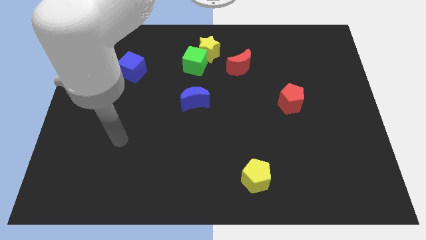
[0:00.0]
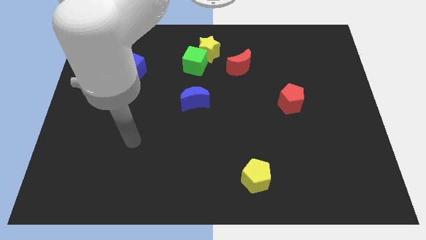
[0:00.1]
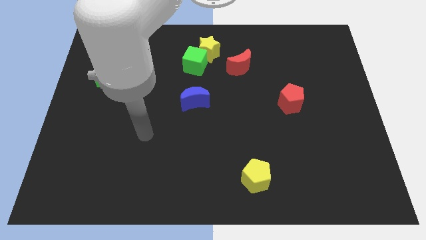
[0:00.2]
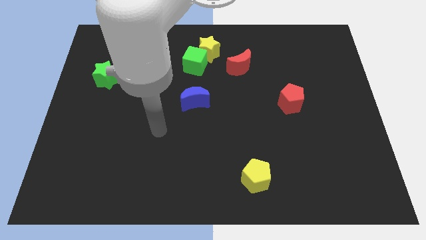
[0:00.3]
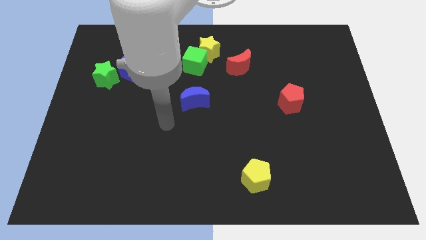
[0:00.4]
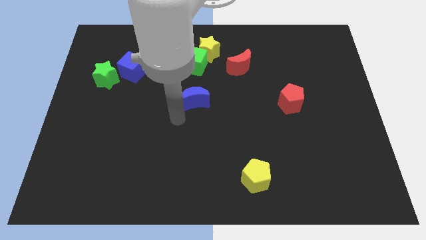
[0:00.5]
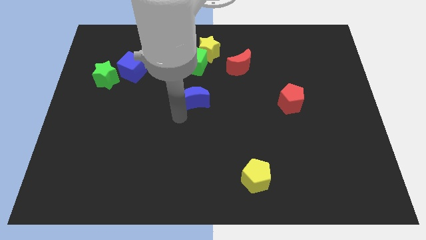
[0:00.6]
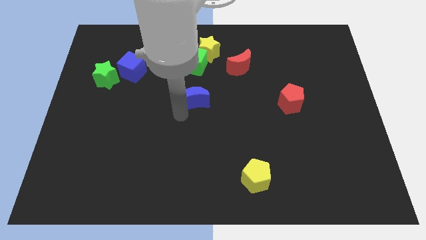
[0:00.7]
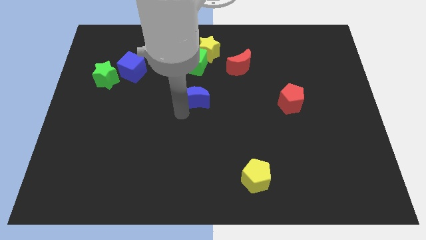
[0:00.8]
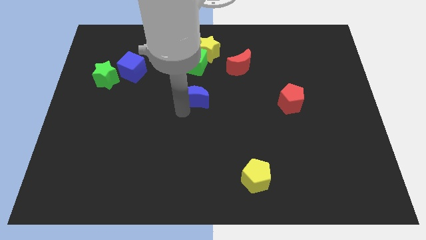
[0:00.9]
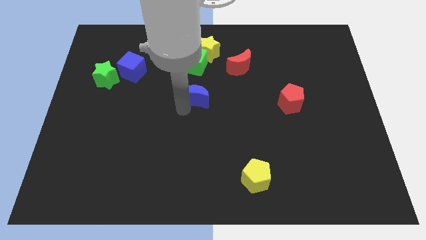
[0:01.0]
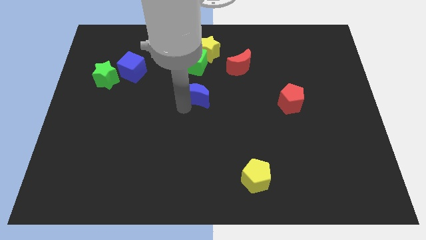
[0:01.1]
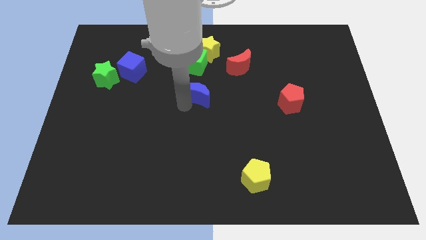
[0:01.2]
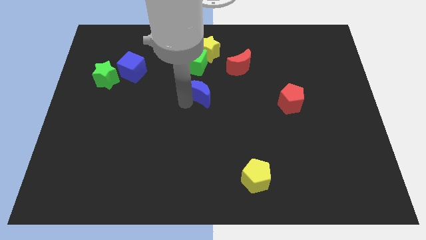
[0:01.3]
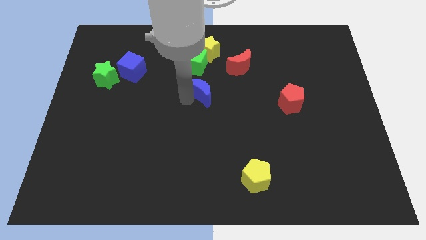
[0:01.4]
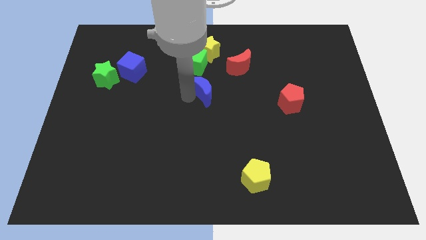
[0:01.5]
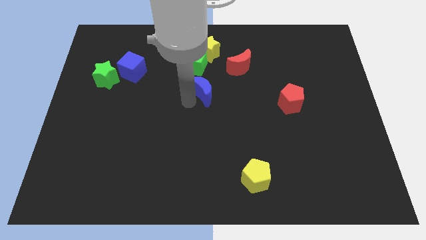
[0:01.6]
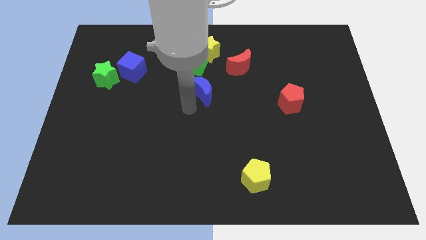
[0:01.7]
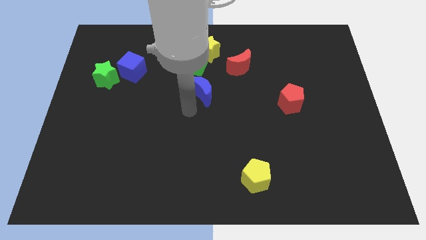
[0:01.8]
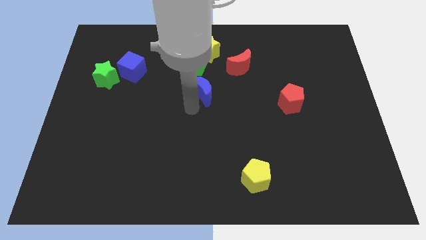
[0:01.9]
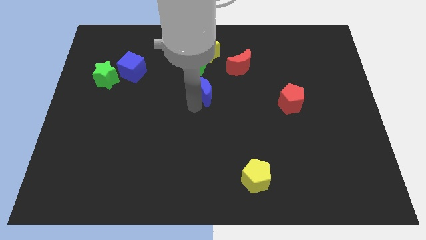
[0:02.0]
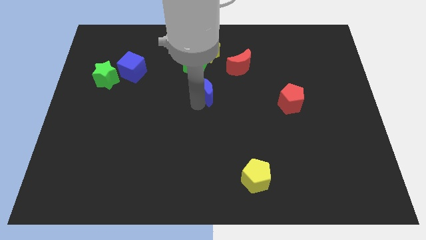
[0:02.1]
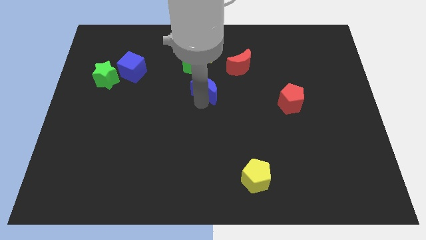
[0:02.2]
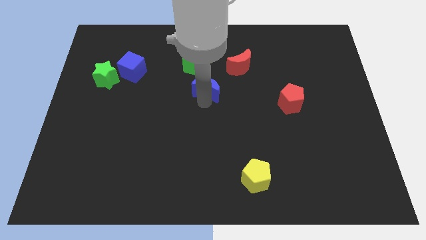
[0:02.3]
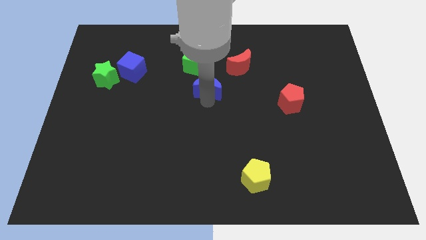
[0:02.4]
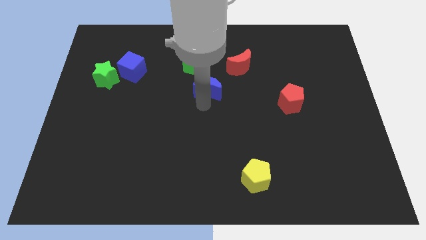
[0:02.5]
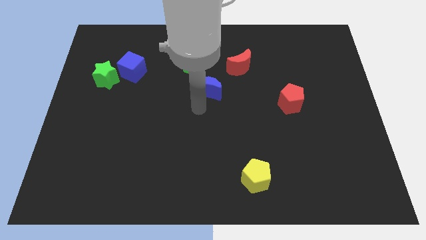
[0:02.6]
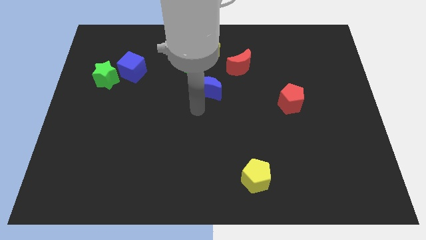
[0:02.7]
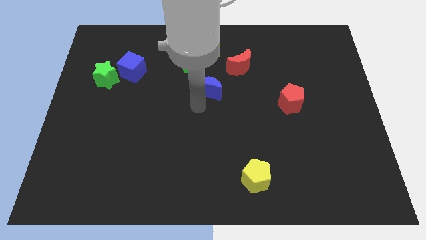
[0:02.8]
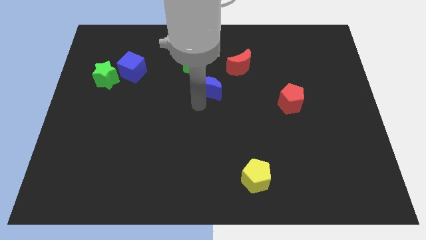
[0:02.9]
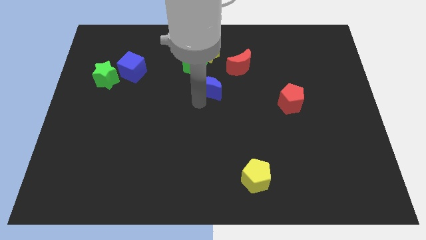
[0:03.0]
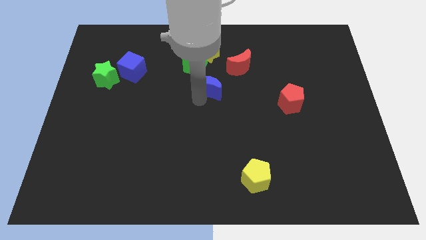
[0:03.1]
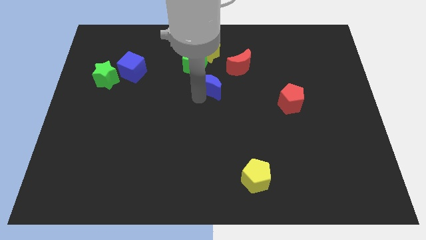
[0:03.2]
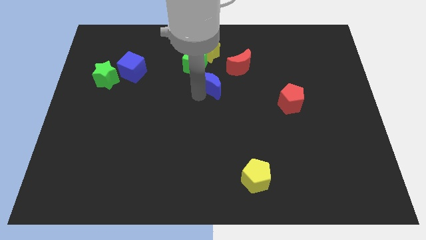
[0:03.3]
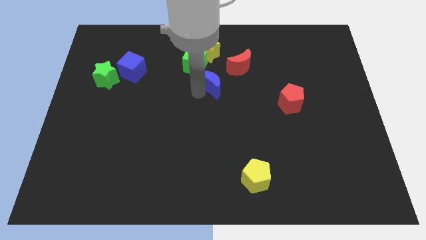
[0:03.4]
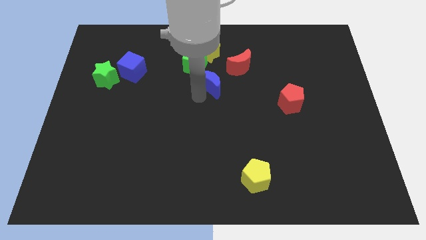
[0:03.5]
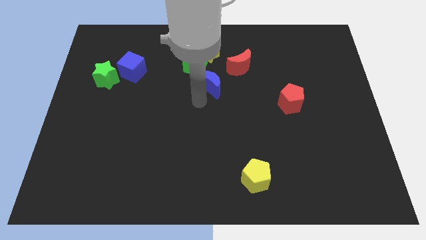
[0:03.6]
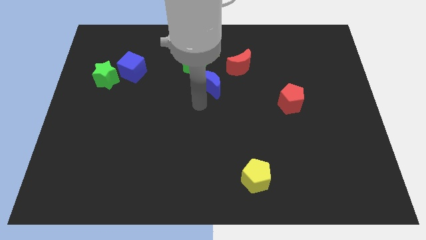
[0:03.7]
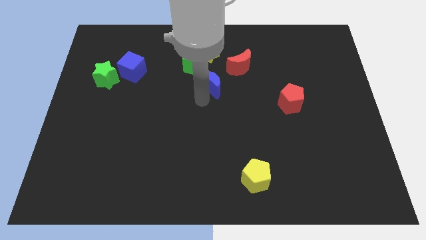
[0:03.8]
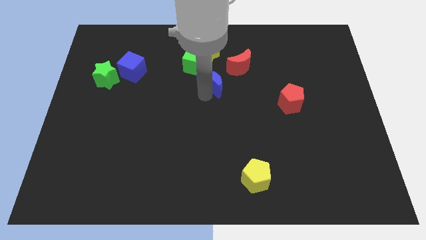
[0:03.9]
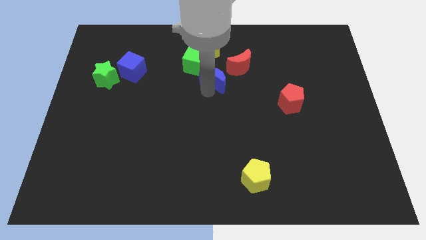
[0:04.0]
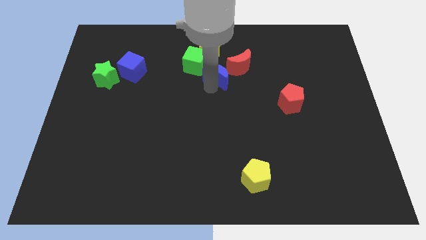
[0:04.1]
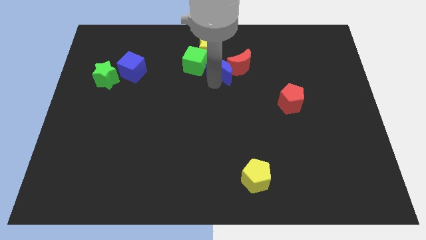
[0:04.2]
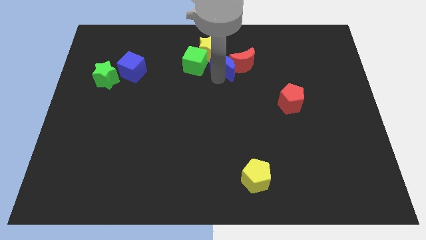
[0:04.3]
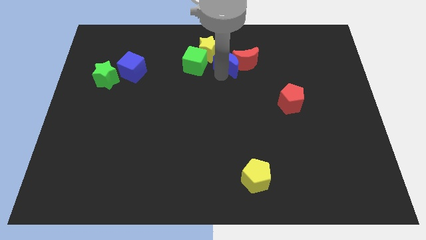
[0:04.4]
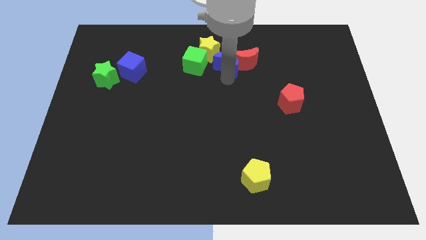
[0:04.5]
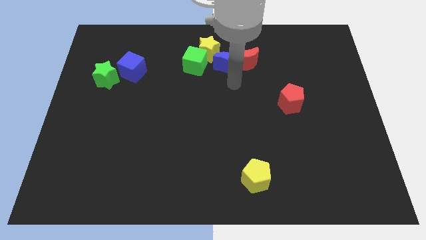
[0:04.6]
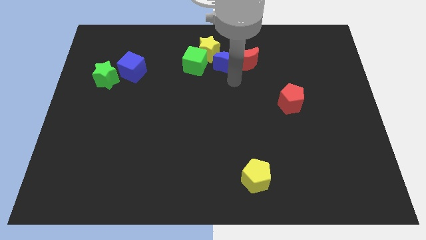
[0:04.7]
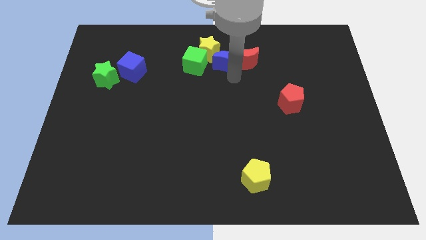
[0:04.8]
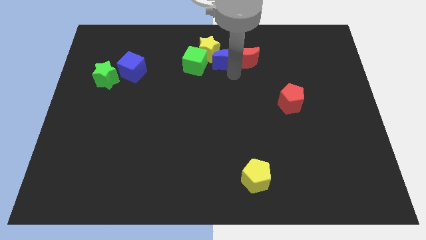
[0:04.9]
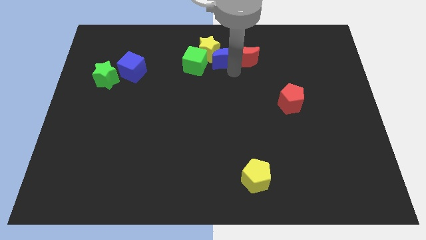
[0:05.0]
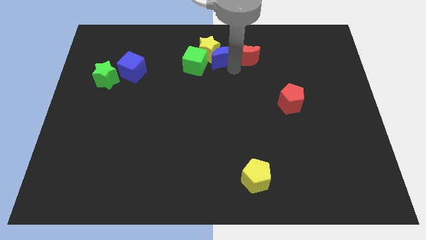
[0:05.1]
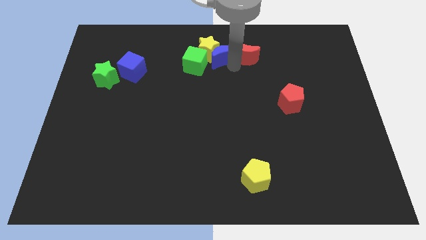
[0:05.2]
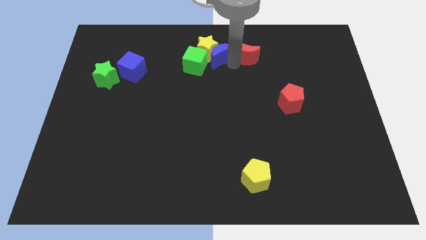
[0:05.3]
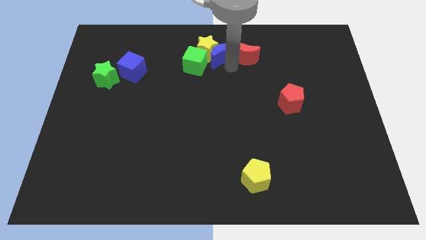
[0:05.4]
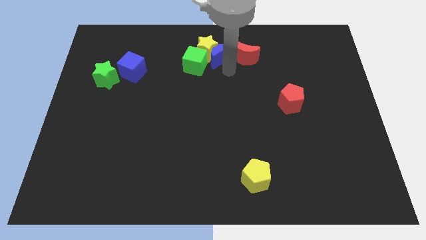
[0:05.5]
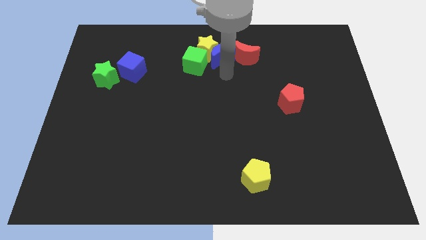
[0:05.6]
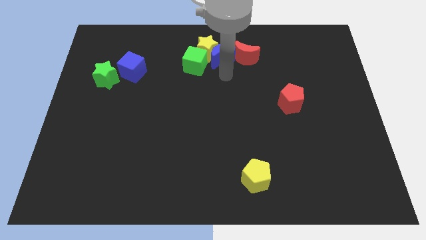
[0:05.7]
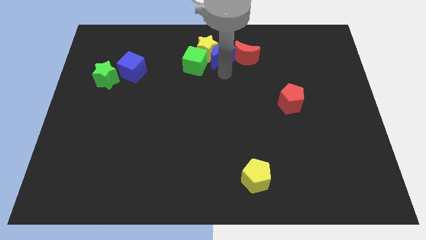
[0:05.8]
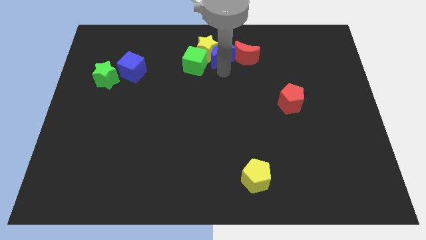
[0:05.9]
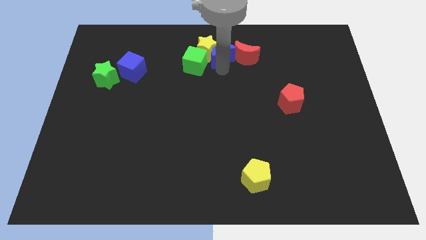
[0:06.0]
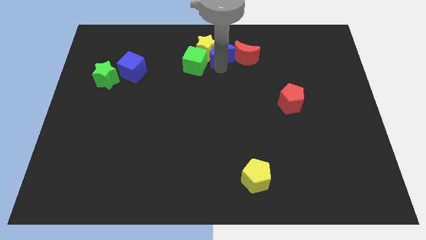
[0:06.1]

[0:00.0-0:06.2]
move the blue moon to the towards your base

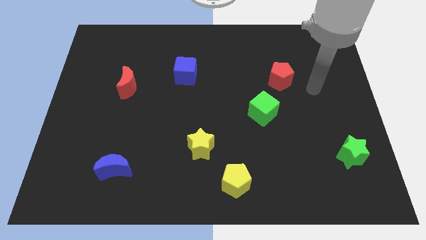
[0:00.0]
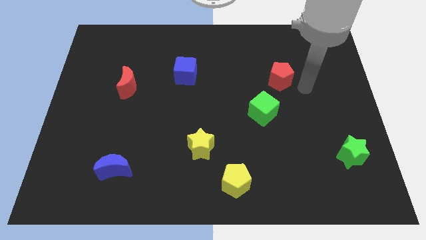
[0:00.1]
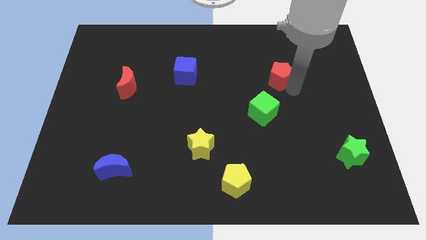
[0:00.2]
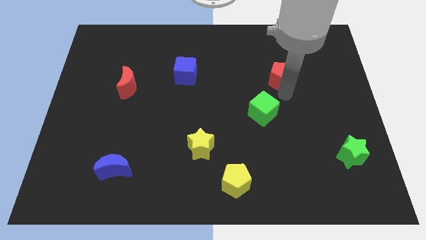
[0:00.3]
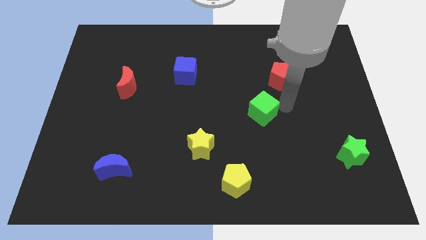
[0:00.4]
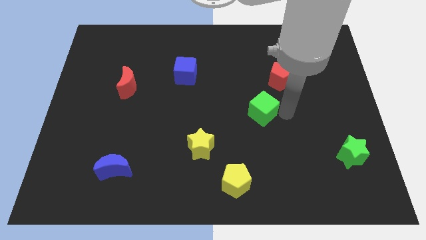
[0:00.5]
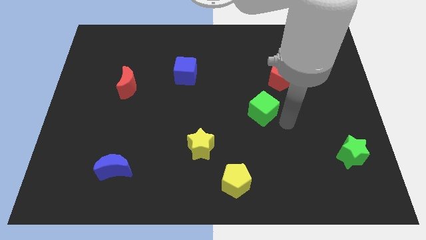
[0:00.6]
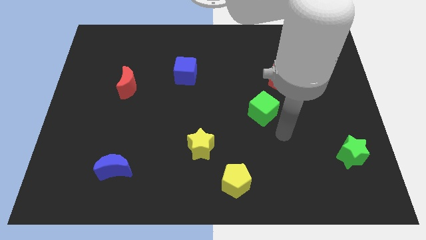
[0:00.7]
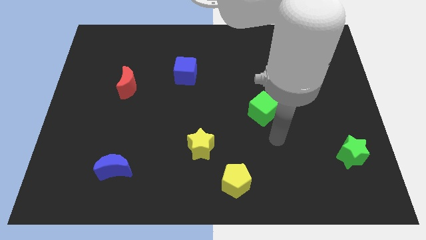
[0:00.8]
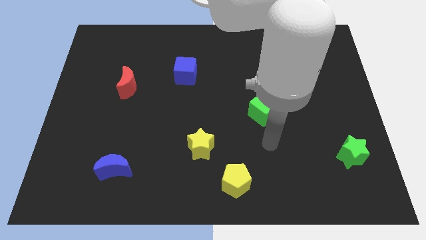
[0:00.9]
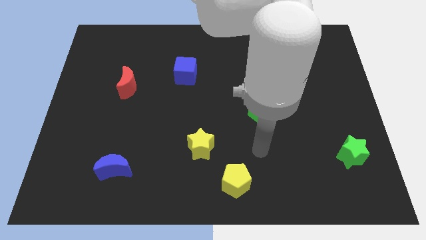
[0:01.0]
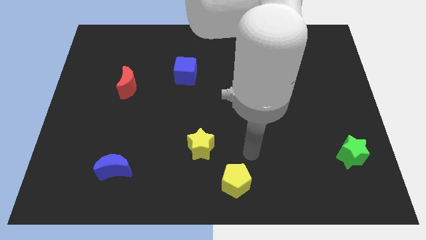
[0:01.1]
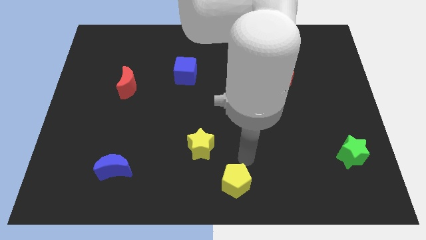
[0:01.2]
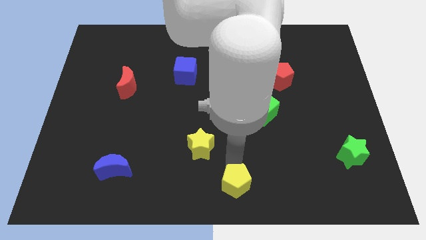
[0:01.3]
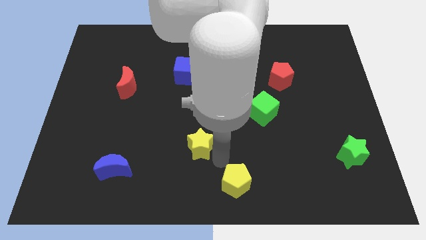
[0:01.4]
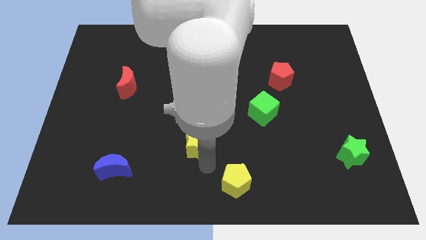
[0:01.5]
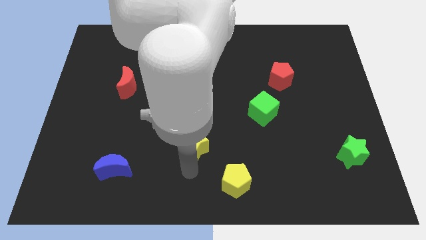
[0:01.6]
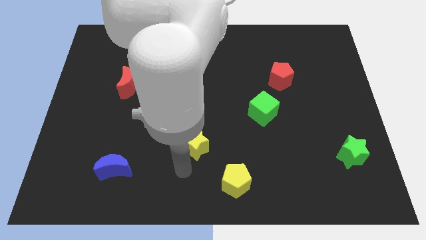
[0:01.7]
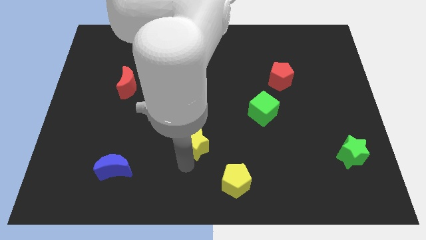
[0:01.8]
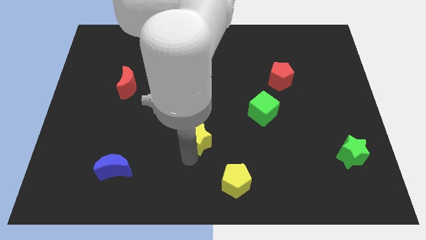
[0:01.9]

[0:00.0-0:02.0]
slide the yellow star to the middle
